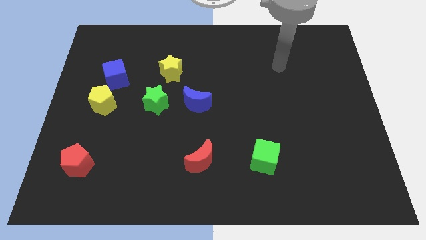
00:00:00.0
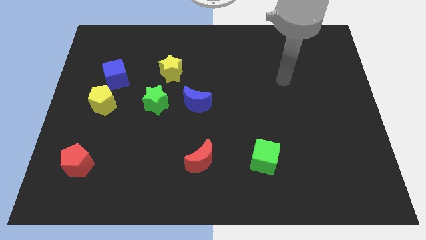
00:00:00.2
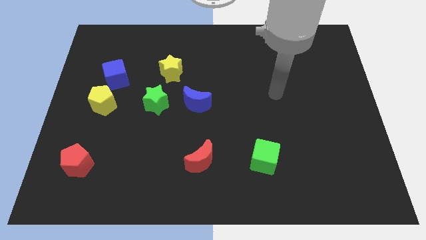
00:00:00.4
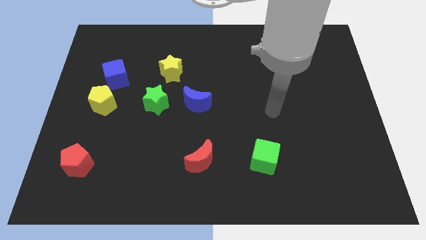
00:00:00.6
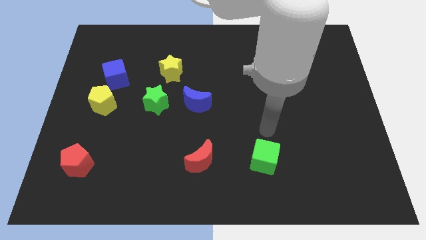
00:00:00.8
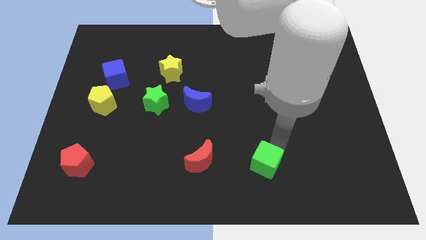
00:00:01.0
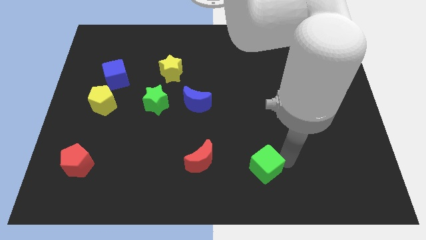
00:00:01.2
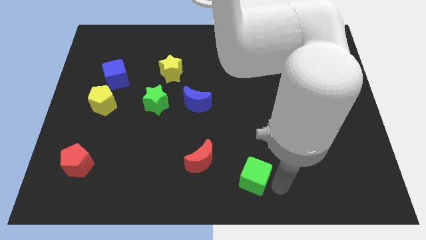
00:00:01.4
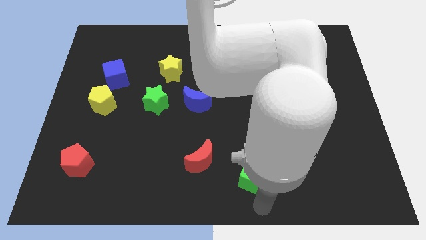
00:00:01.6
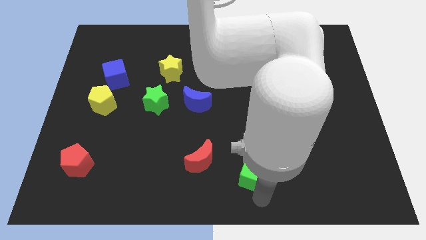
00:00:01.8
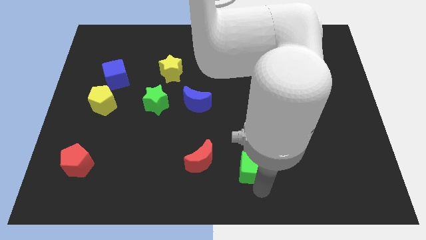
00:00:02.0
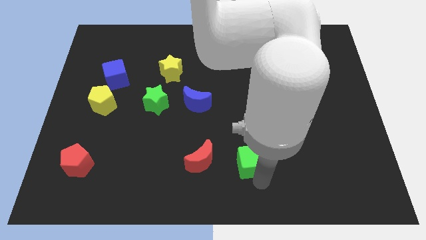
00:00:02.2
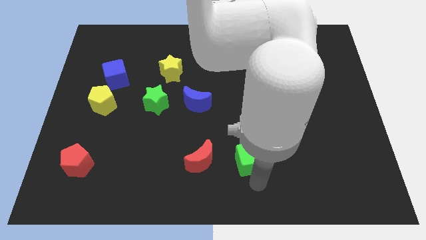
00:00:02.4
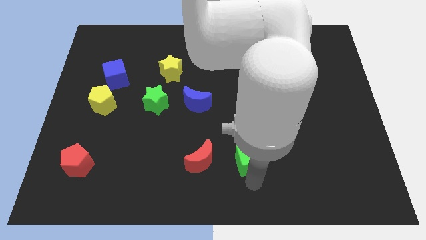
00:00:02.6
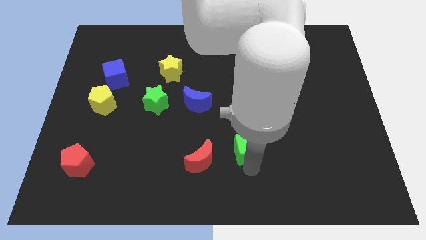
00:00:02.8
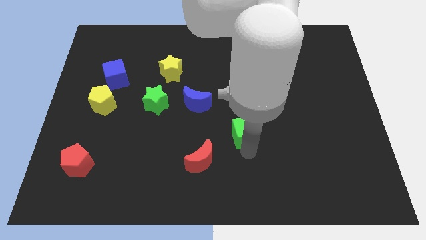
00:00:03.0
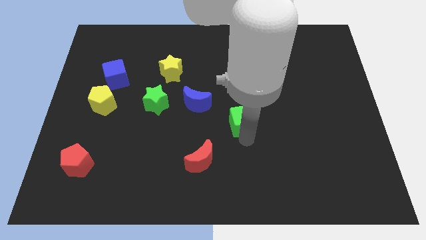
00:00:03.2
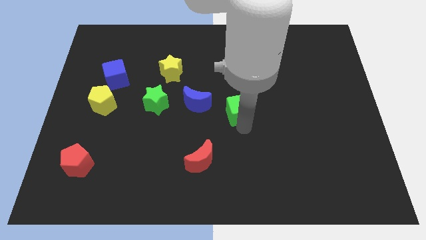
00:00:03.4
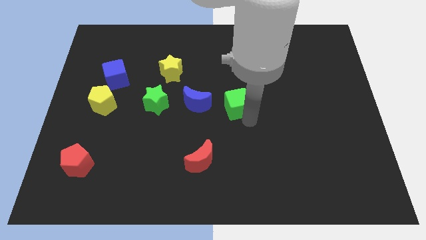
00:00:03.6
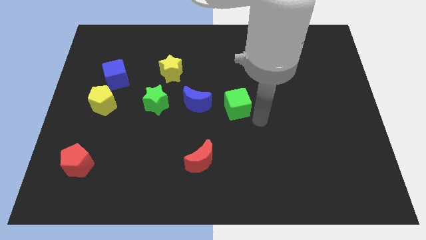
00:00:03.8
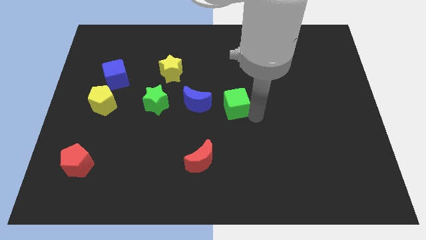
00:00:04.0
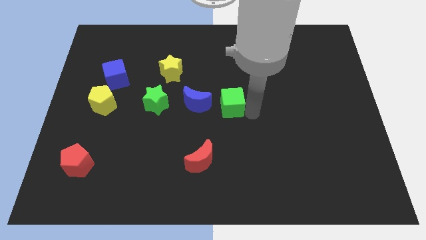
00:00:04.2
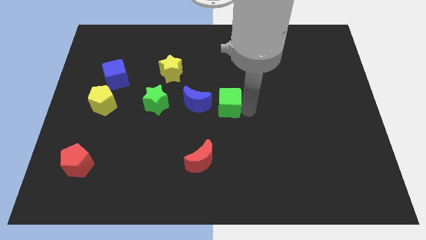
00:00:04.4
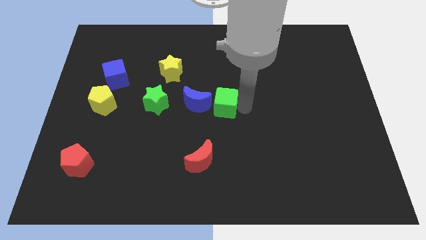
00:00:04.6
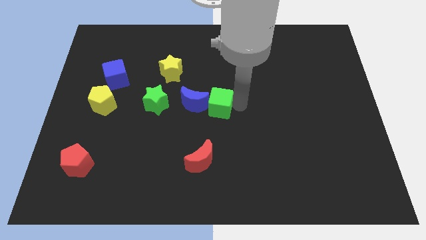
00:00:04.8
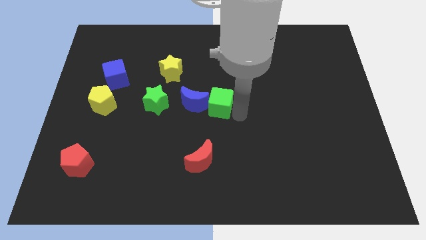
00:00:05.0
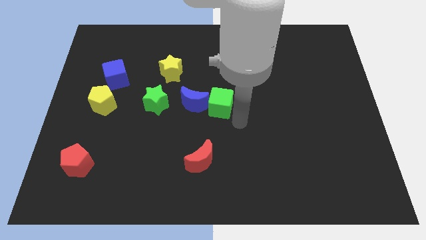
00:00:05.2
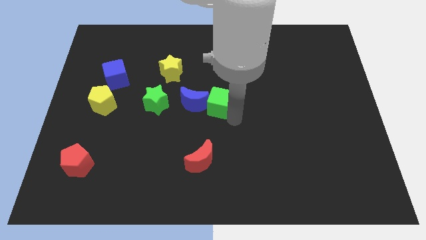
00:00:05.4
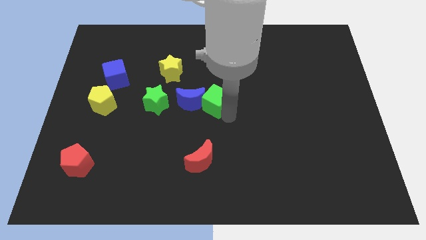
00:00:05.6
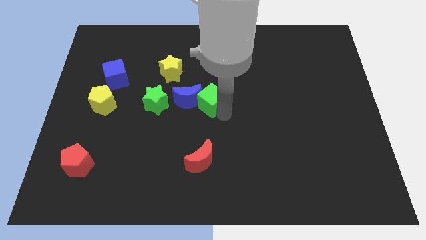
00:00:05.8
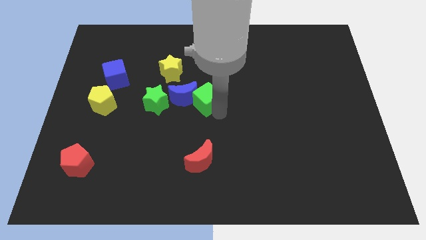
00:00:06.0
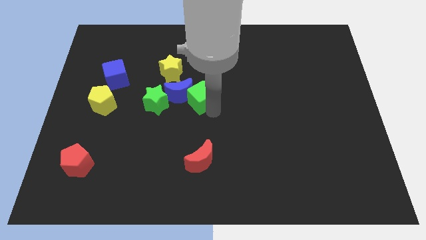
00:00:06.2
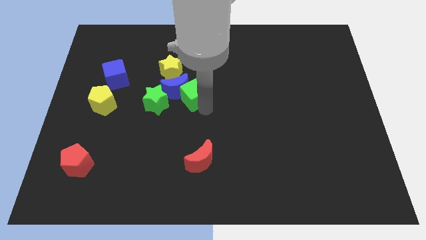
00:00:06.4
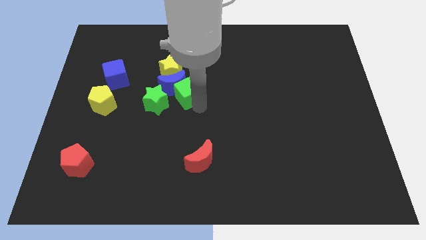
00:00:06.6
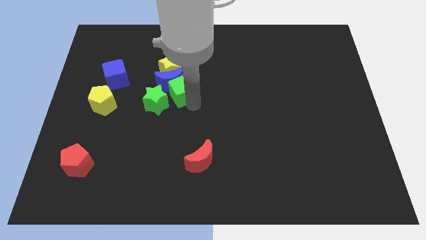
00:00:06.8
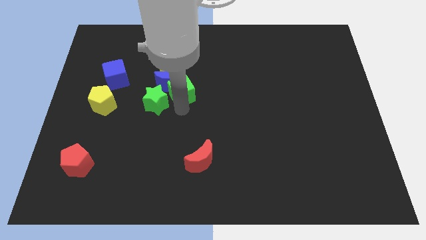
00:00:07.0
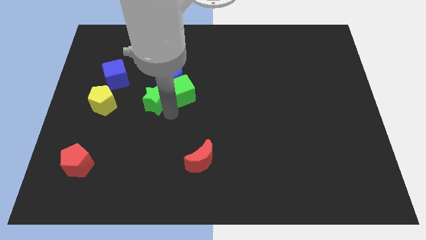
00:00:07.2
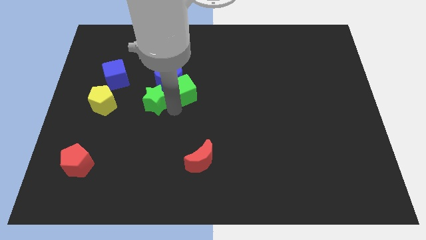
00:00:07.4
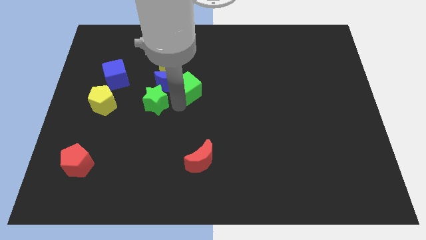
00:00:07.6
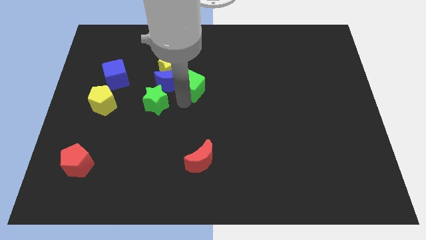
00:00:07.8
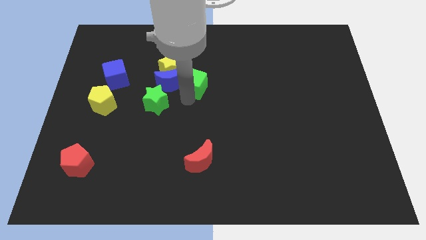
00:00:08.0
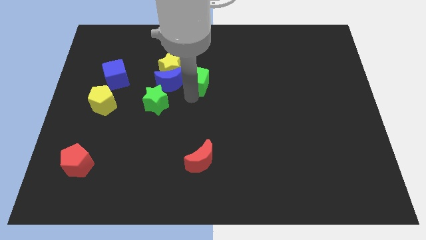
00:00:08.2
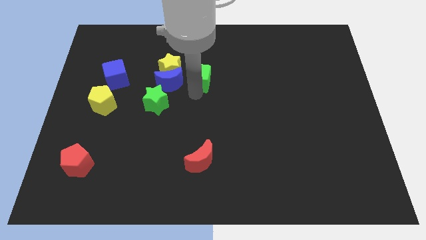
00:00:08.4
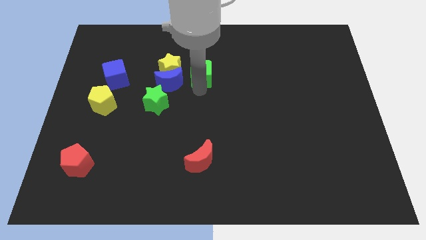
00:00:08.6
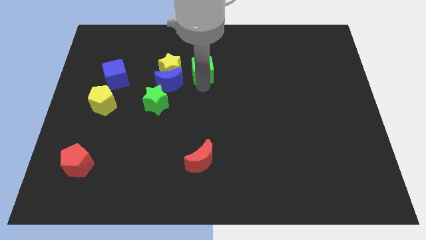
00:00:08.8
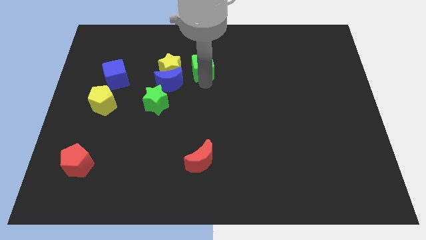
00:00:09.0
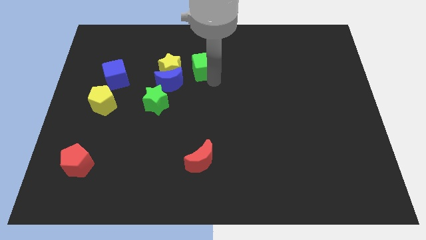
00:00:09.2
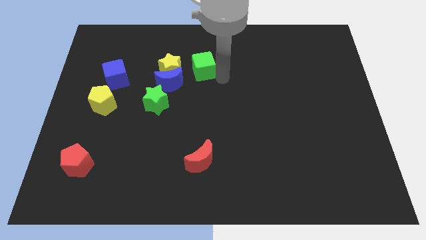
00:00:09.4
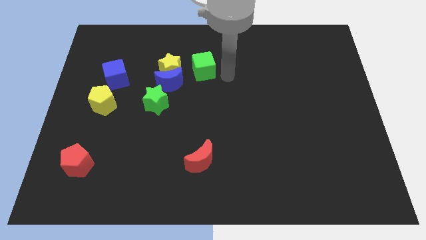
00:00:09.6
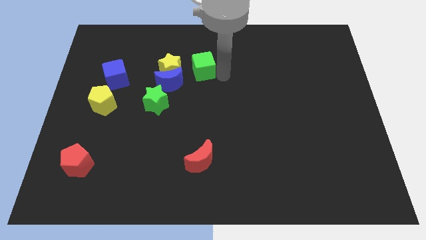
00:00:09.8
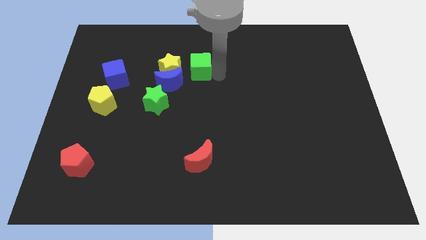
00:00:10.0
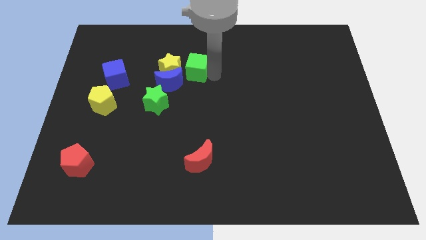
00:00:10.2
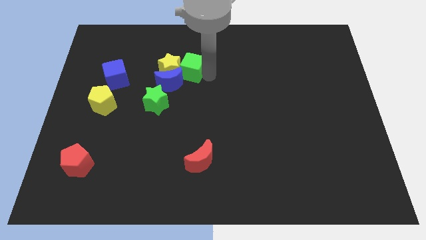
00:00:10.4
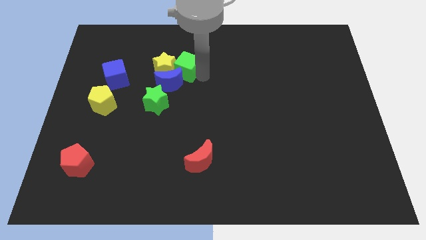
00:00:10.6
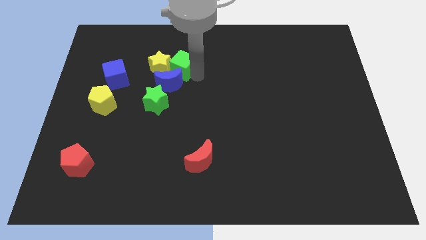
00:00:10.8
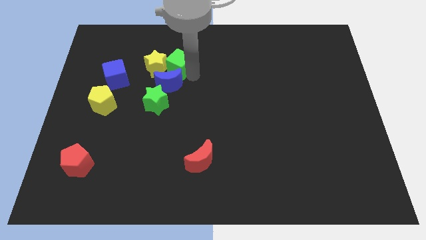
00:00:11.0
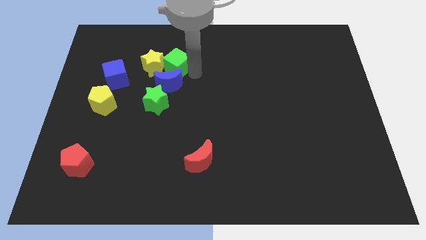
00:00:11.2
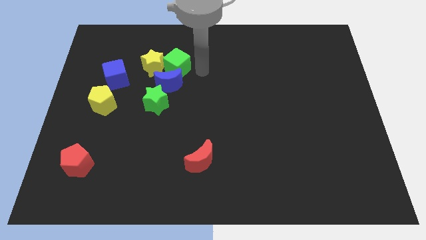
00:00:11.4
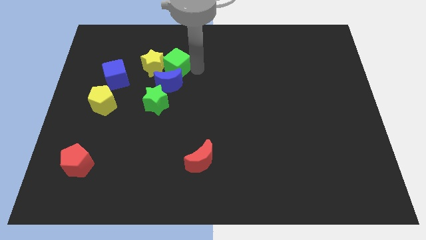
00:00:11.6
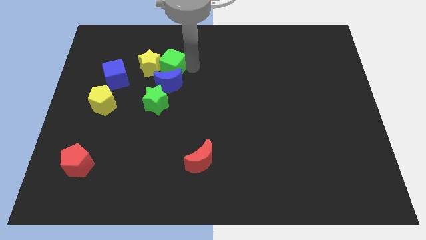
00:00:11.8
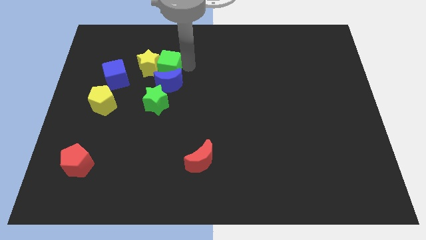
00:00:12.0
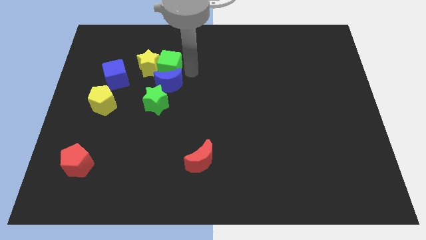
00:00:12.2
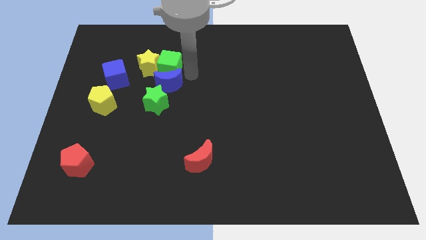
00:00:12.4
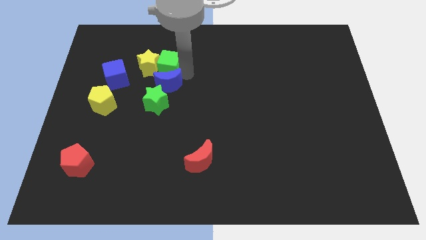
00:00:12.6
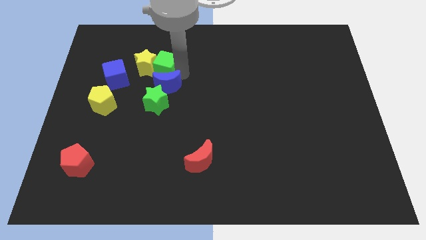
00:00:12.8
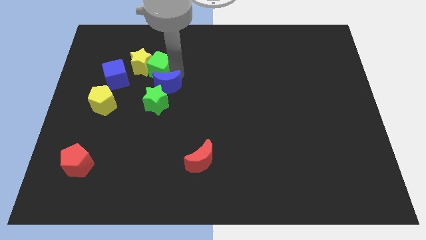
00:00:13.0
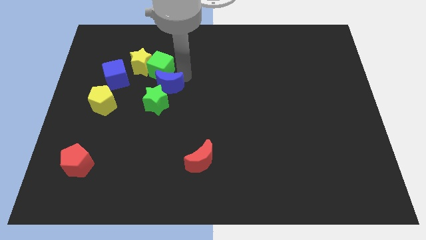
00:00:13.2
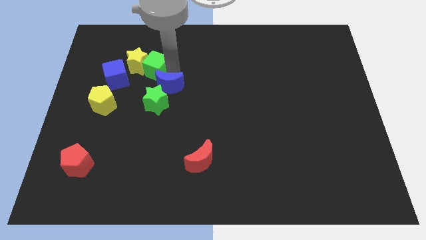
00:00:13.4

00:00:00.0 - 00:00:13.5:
push the green cube to the top right of the blue cube

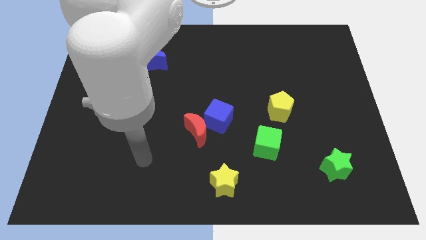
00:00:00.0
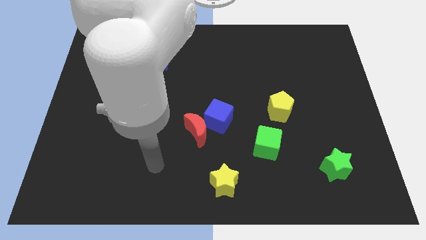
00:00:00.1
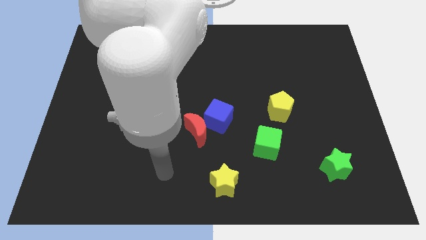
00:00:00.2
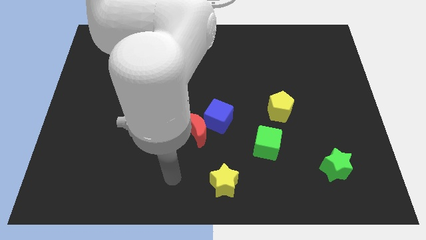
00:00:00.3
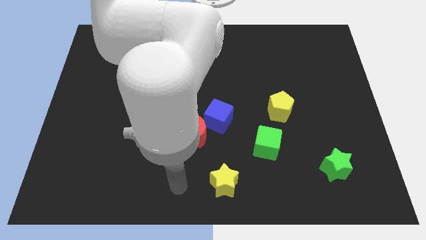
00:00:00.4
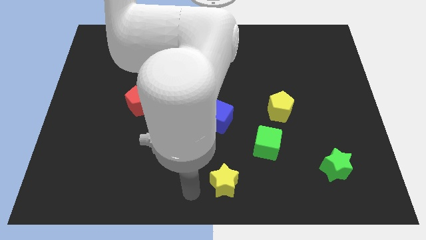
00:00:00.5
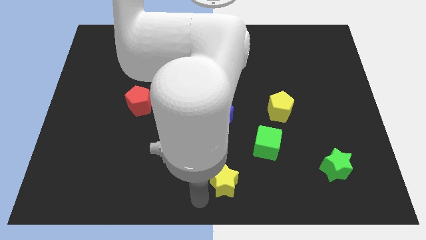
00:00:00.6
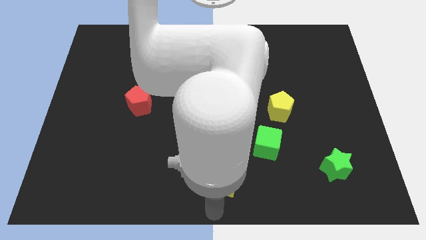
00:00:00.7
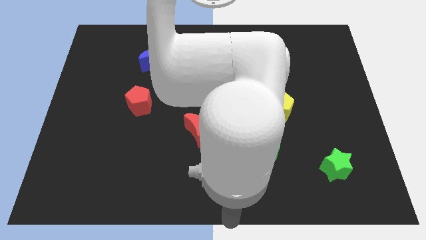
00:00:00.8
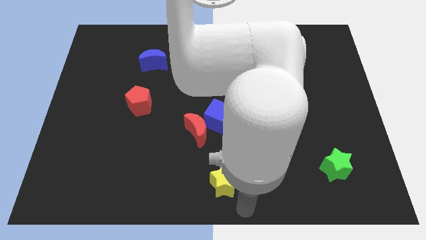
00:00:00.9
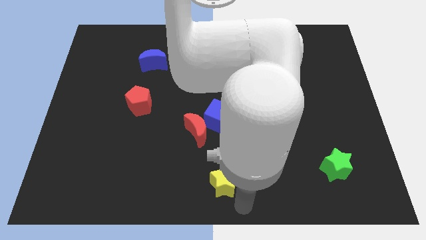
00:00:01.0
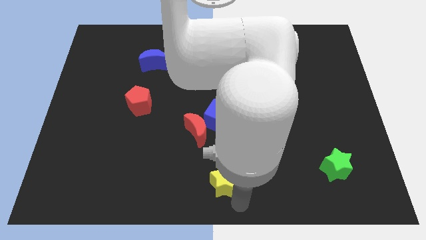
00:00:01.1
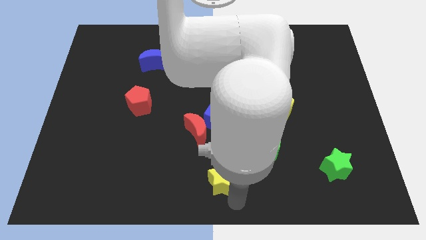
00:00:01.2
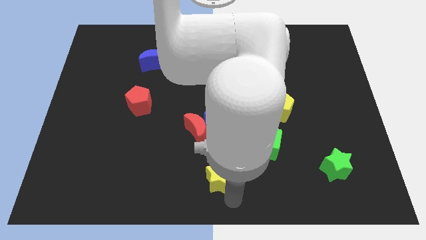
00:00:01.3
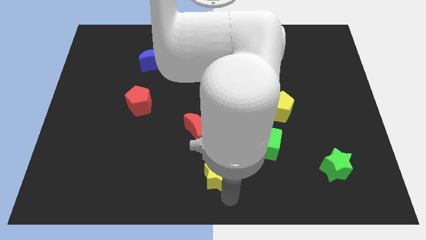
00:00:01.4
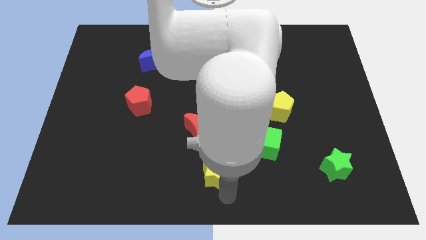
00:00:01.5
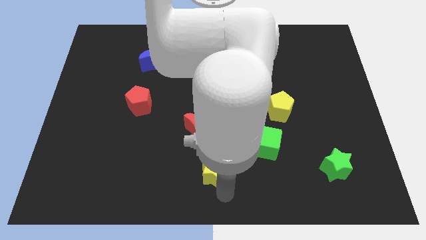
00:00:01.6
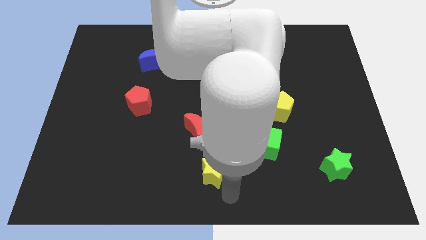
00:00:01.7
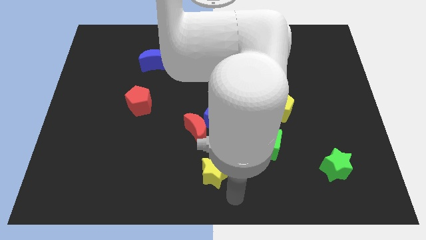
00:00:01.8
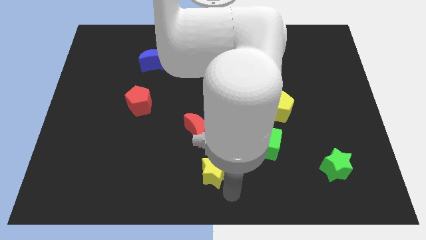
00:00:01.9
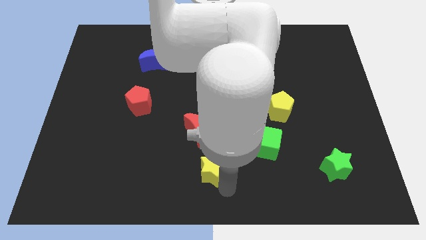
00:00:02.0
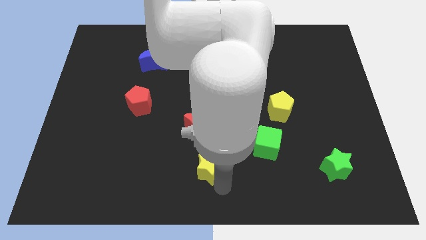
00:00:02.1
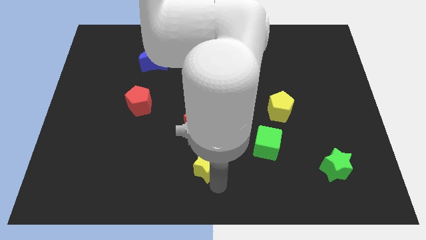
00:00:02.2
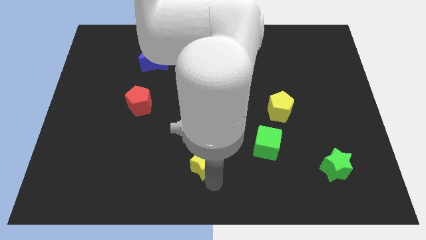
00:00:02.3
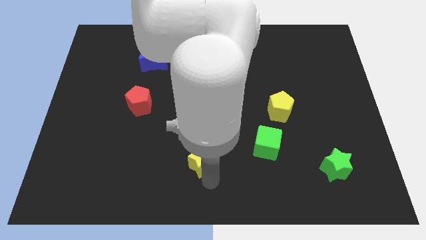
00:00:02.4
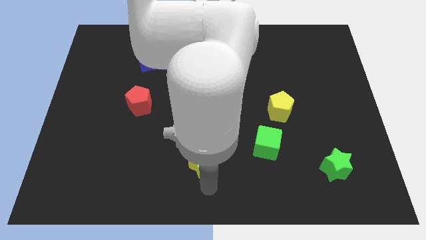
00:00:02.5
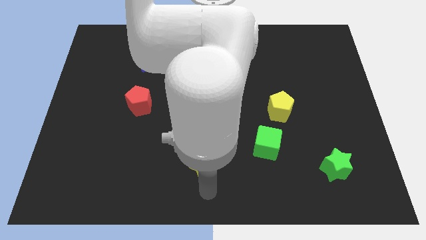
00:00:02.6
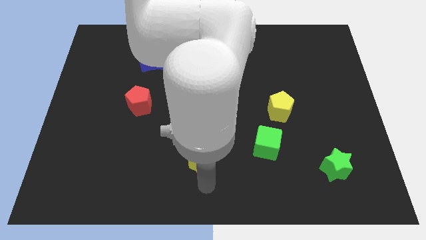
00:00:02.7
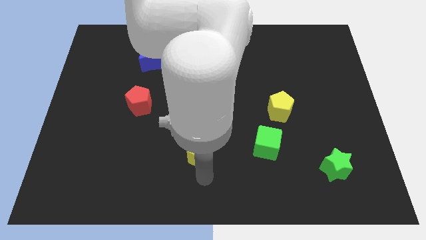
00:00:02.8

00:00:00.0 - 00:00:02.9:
move the yellow star to the bottom left side of the blue cube
